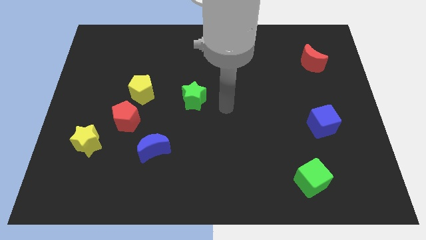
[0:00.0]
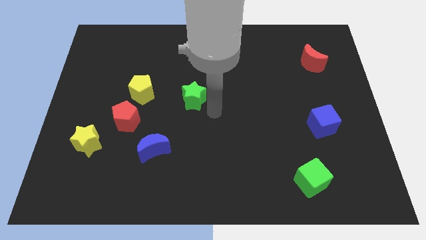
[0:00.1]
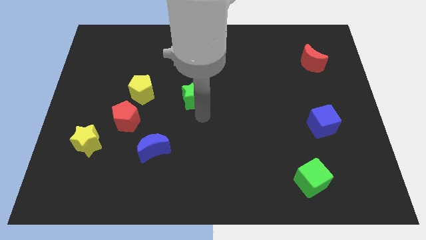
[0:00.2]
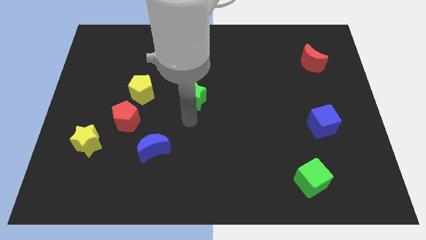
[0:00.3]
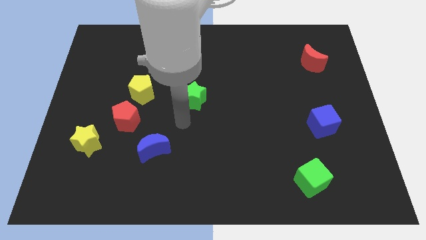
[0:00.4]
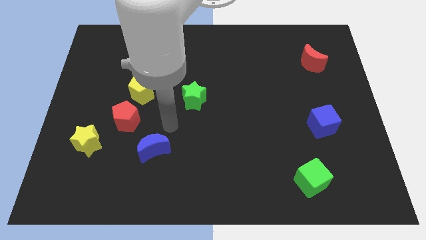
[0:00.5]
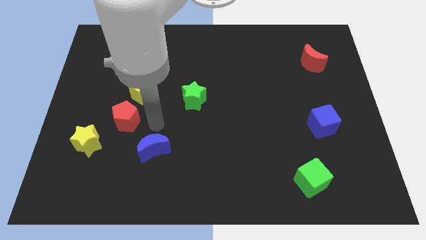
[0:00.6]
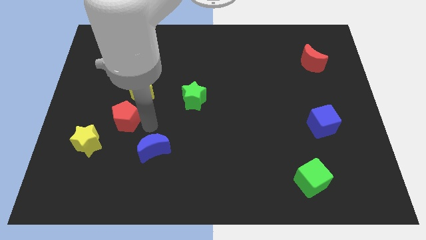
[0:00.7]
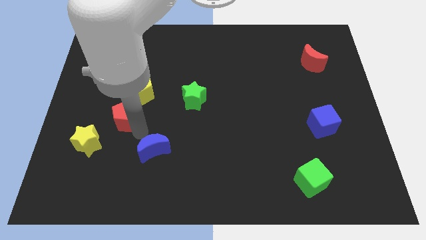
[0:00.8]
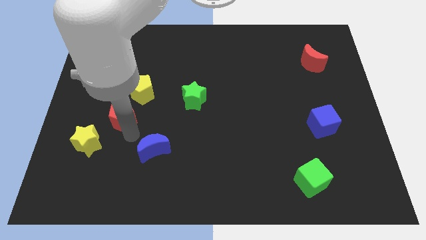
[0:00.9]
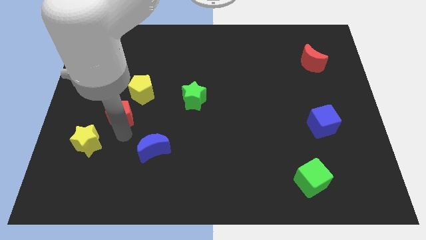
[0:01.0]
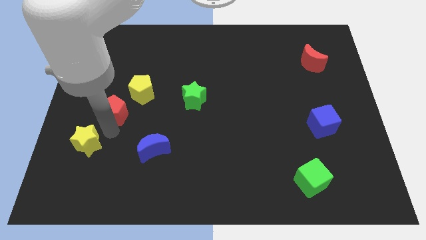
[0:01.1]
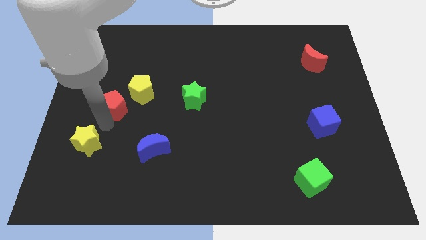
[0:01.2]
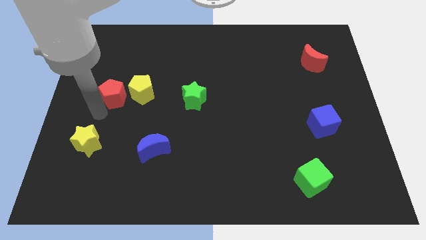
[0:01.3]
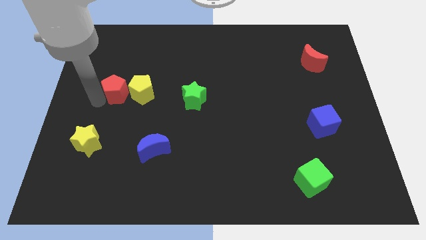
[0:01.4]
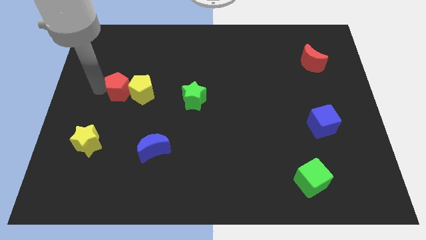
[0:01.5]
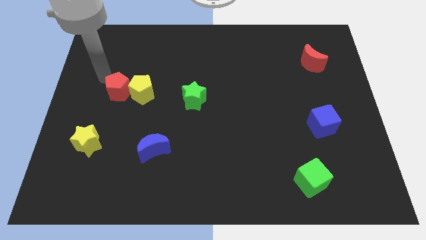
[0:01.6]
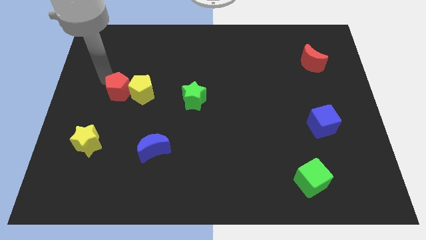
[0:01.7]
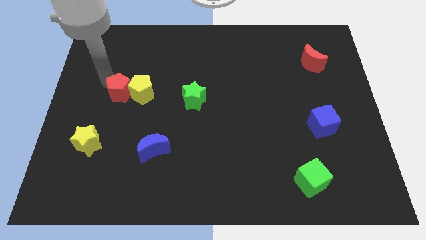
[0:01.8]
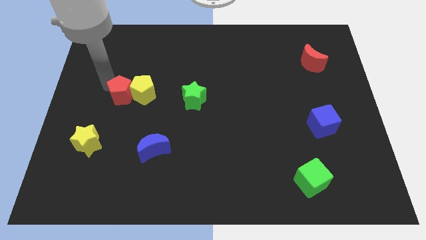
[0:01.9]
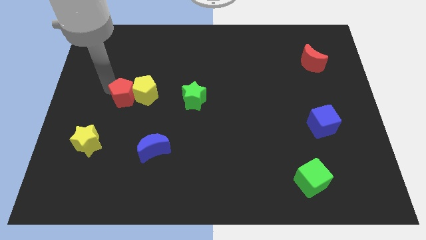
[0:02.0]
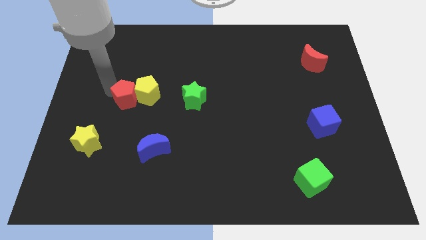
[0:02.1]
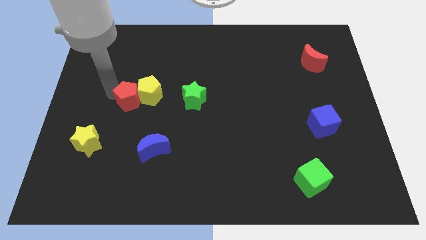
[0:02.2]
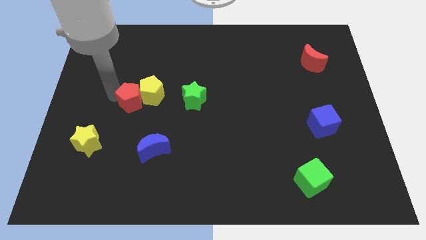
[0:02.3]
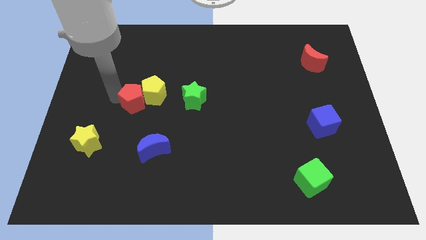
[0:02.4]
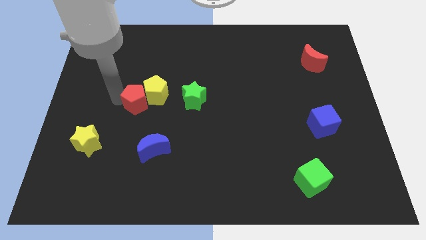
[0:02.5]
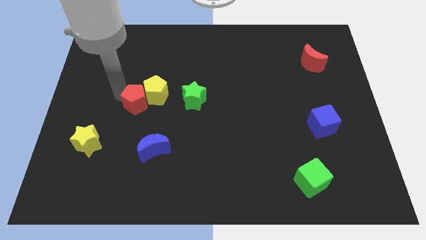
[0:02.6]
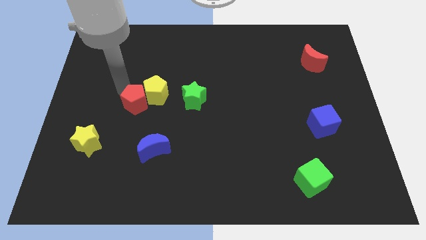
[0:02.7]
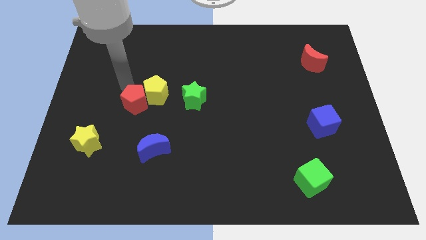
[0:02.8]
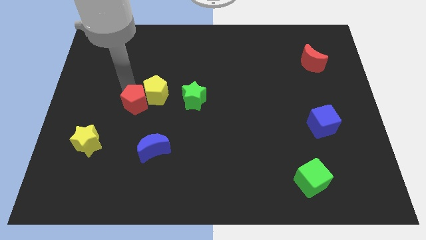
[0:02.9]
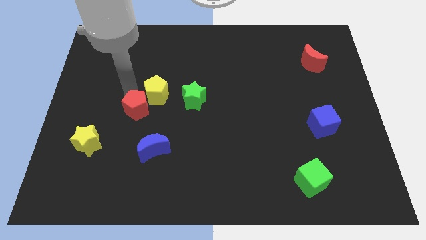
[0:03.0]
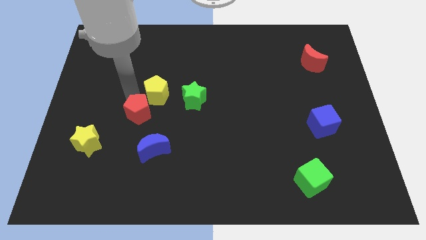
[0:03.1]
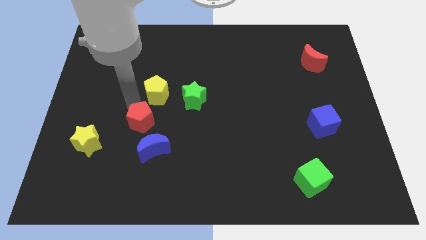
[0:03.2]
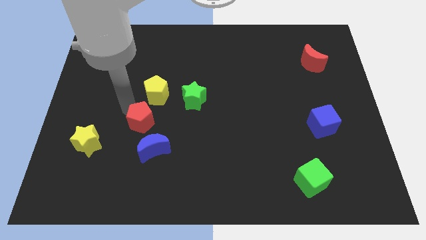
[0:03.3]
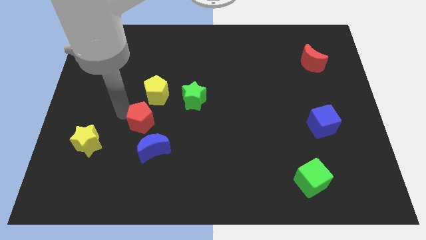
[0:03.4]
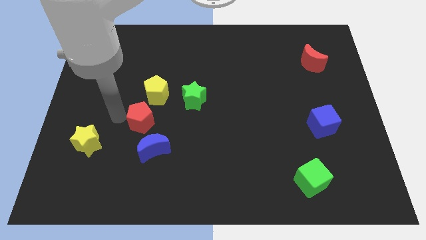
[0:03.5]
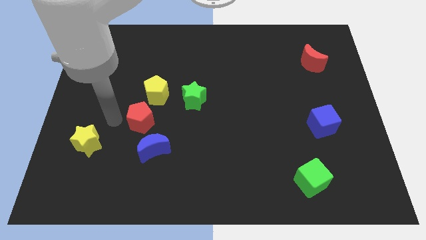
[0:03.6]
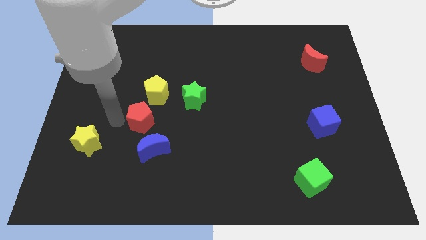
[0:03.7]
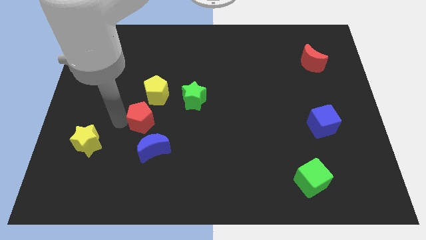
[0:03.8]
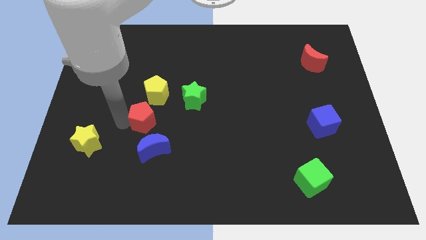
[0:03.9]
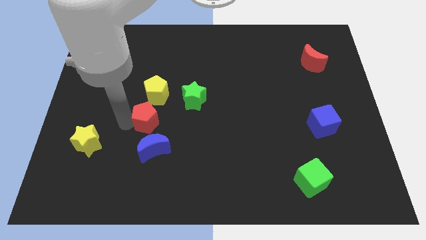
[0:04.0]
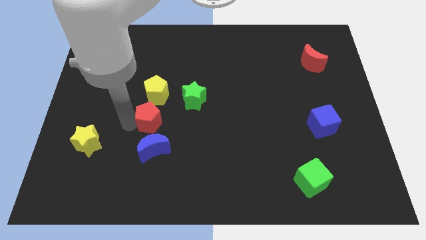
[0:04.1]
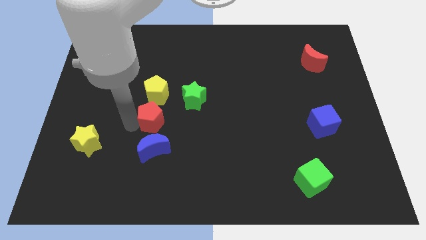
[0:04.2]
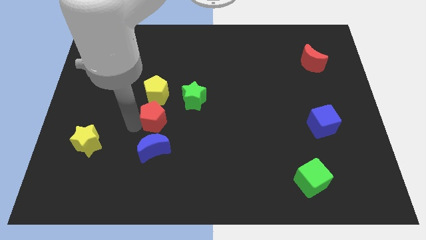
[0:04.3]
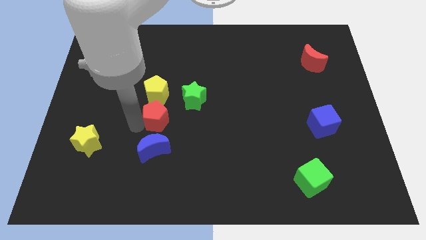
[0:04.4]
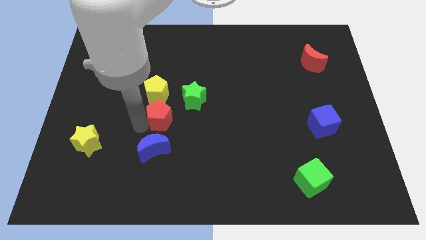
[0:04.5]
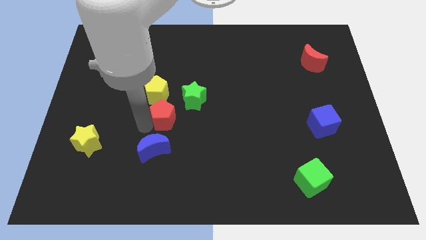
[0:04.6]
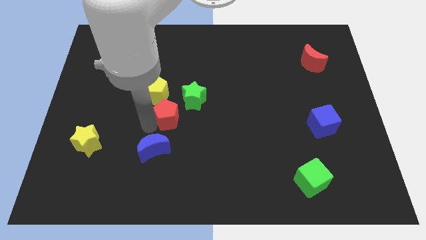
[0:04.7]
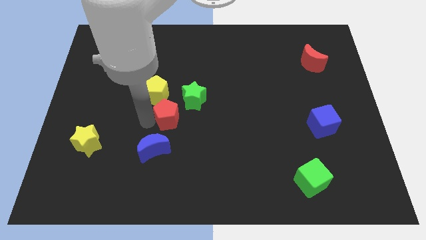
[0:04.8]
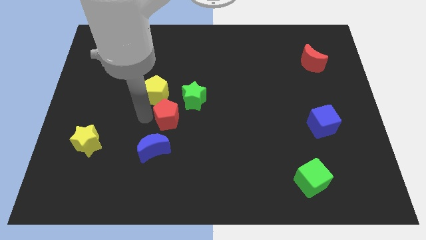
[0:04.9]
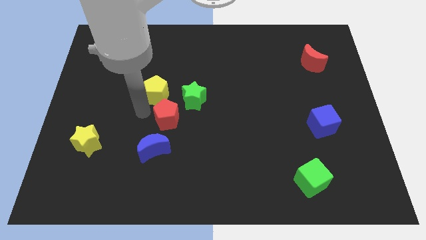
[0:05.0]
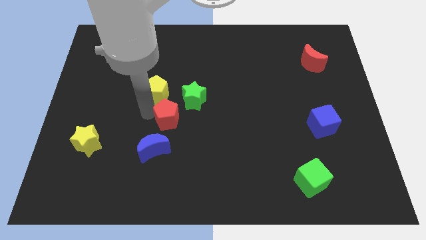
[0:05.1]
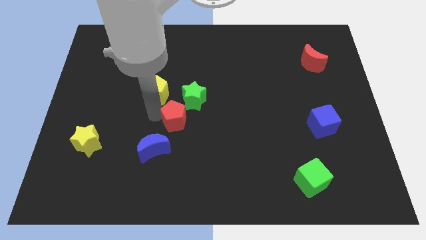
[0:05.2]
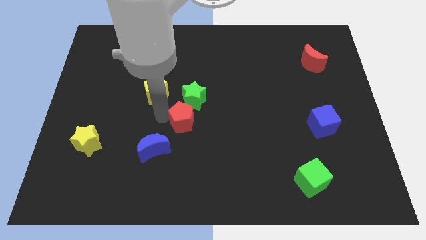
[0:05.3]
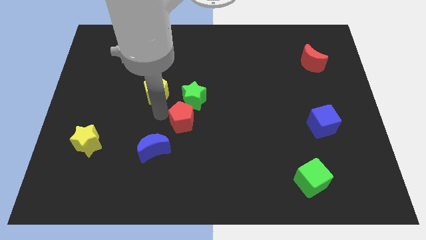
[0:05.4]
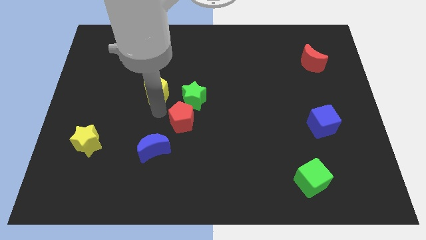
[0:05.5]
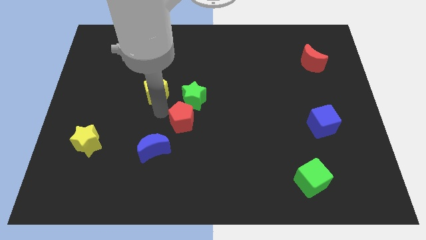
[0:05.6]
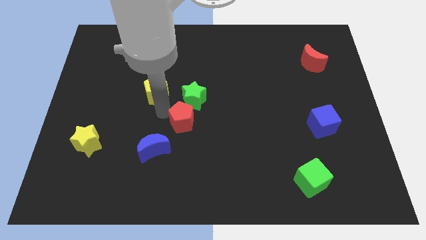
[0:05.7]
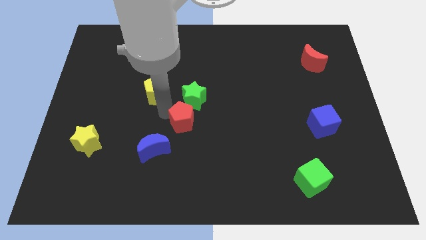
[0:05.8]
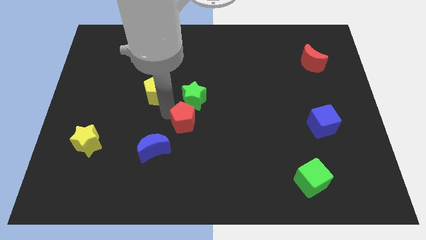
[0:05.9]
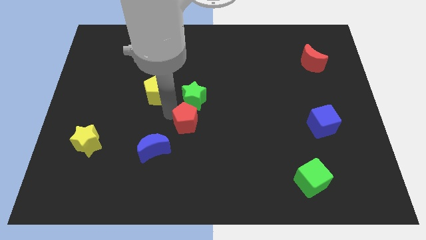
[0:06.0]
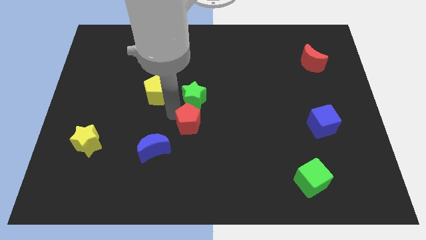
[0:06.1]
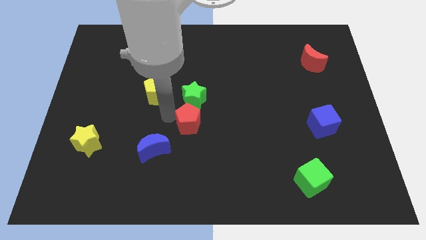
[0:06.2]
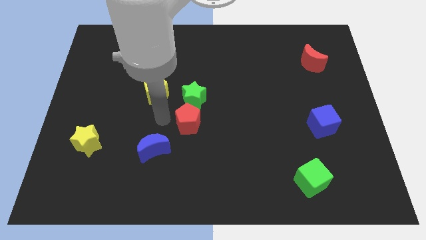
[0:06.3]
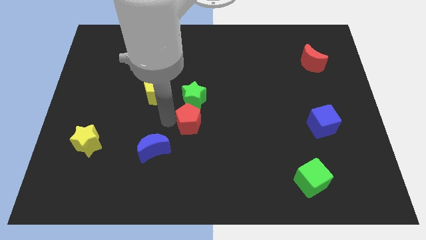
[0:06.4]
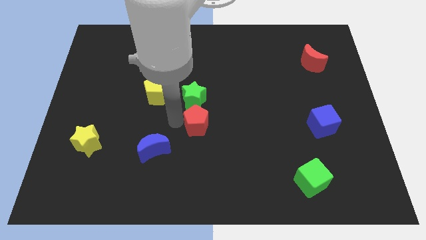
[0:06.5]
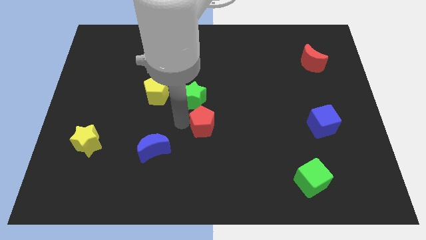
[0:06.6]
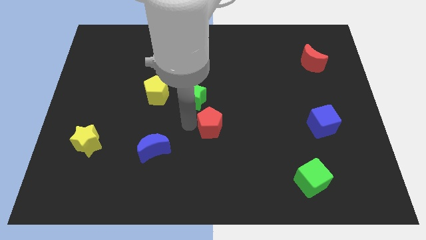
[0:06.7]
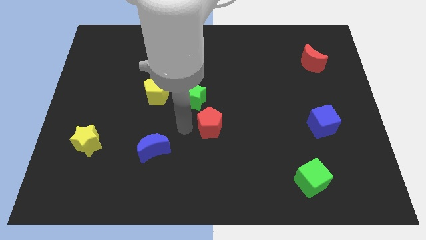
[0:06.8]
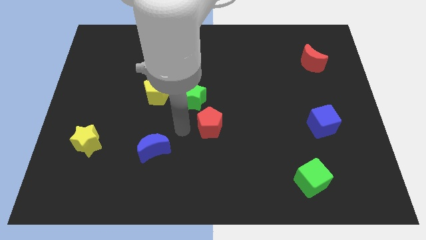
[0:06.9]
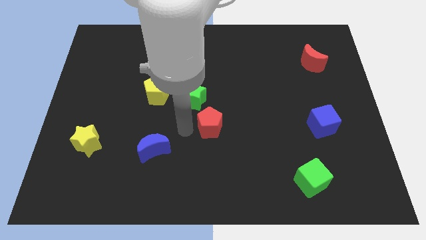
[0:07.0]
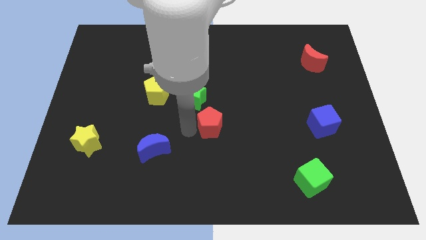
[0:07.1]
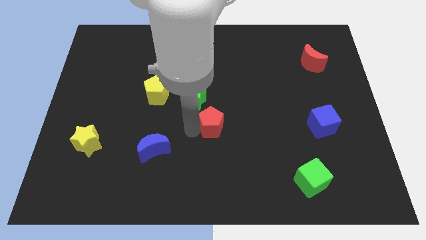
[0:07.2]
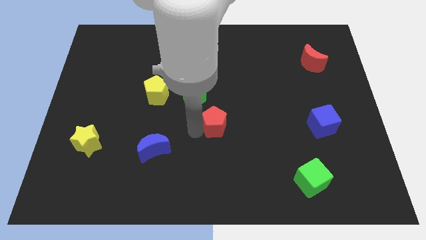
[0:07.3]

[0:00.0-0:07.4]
push the red pentagon right
